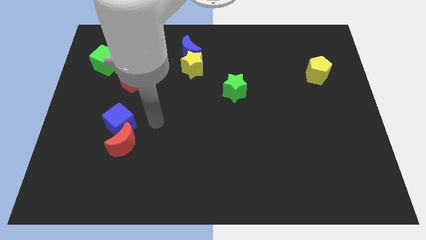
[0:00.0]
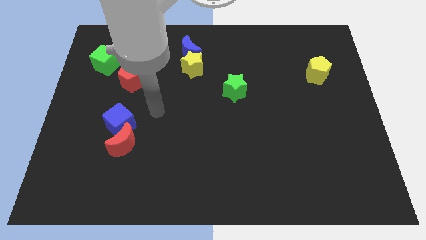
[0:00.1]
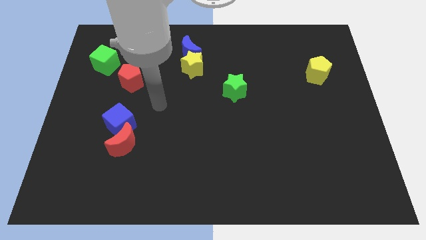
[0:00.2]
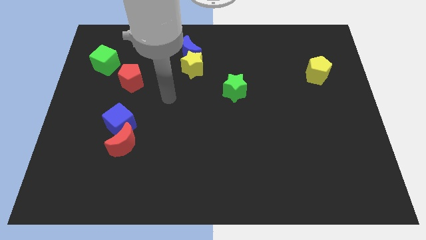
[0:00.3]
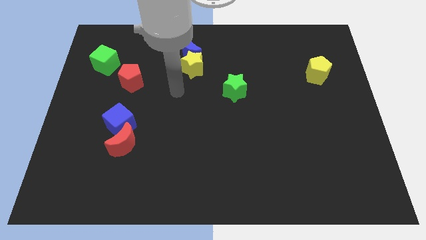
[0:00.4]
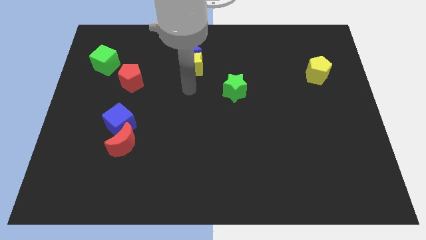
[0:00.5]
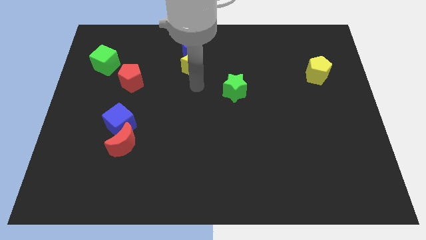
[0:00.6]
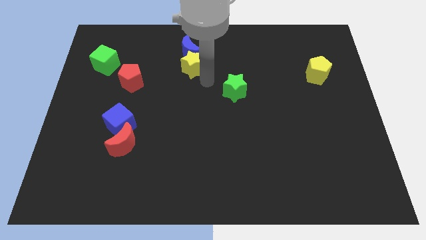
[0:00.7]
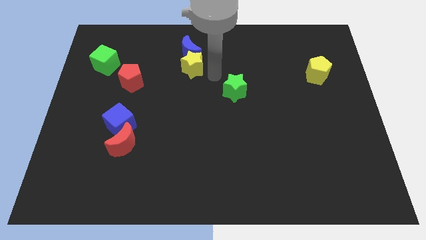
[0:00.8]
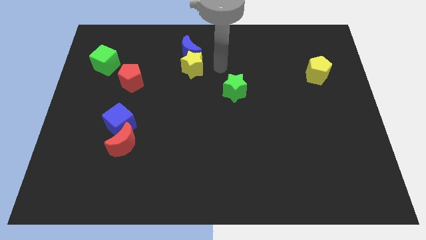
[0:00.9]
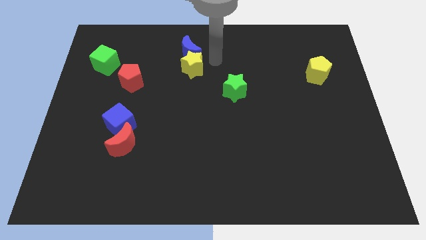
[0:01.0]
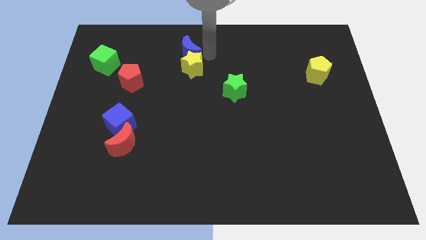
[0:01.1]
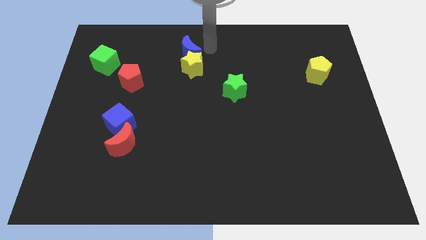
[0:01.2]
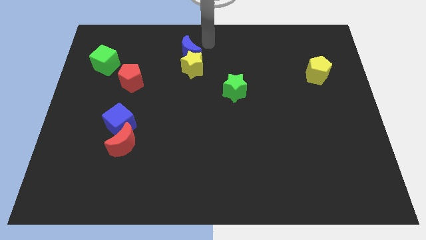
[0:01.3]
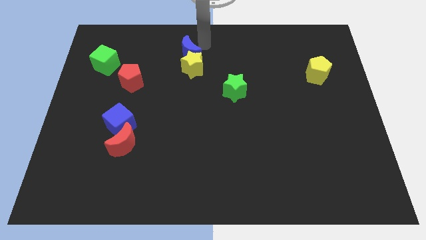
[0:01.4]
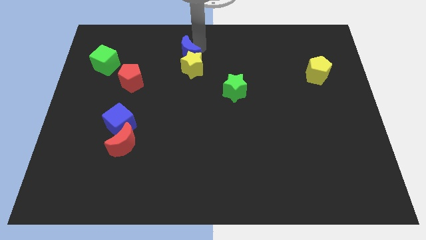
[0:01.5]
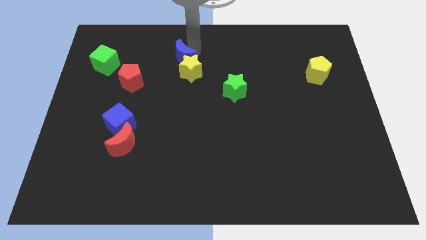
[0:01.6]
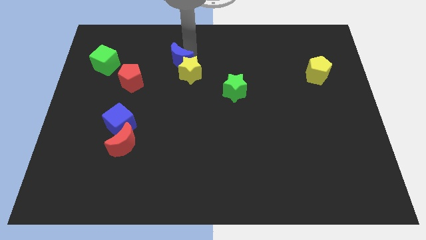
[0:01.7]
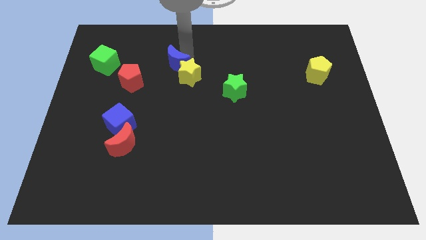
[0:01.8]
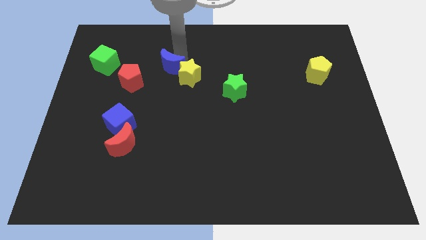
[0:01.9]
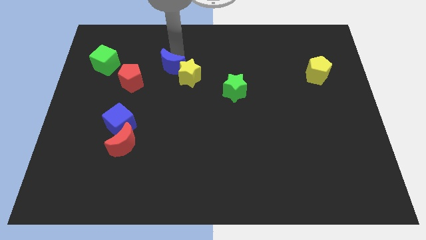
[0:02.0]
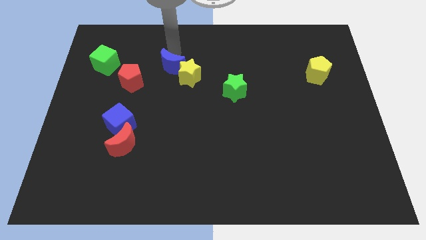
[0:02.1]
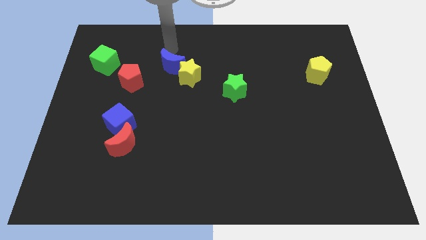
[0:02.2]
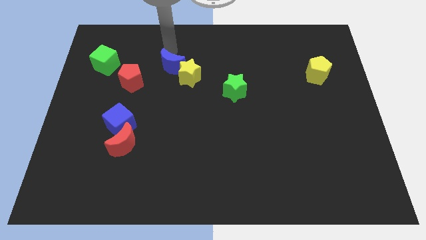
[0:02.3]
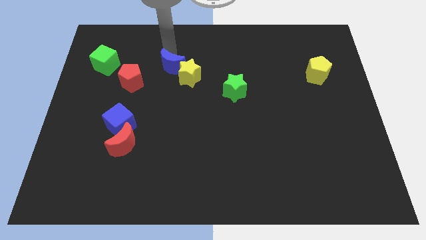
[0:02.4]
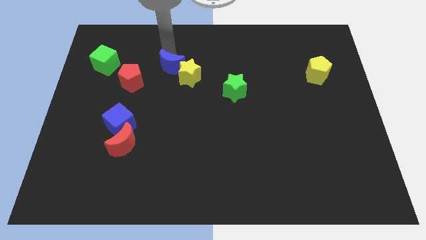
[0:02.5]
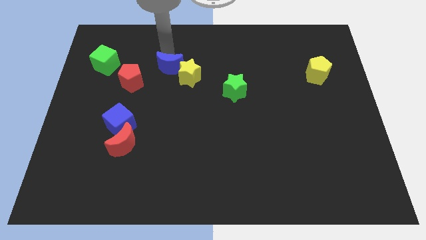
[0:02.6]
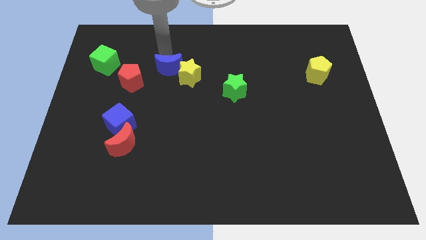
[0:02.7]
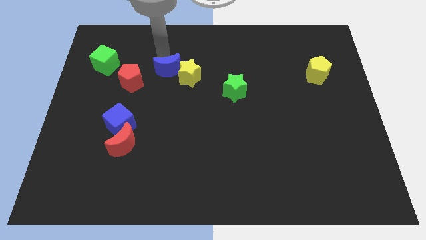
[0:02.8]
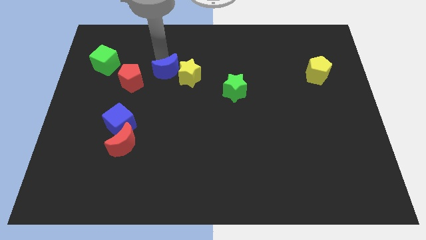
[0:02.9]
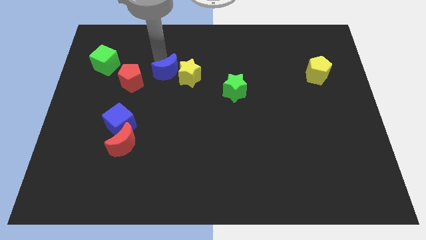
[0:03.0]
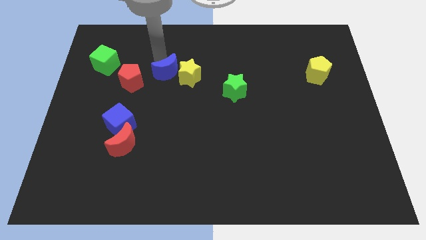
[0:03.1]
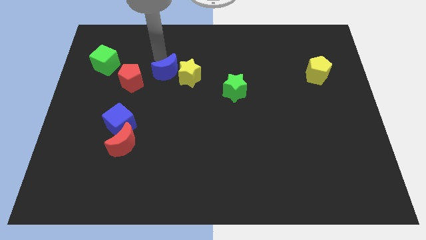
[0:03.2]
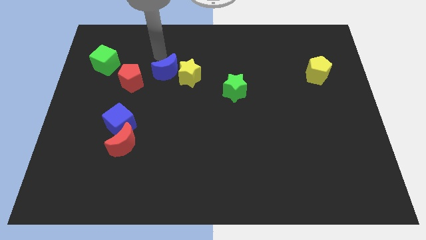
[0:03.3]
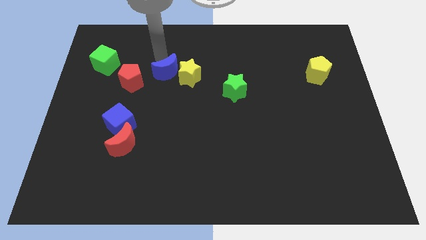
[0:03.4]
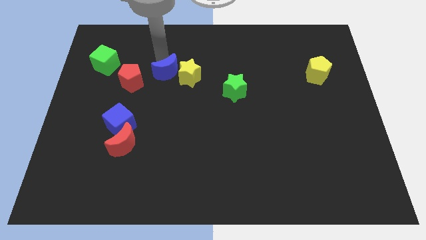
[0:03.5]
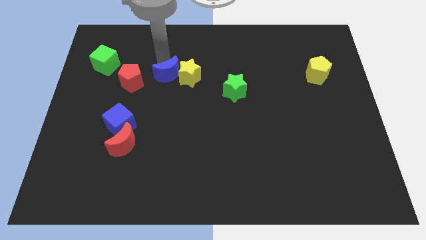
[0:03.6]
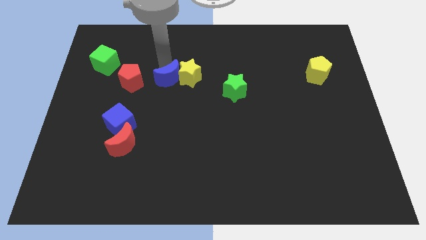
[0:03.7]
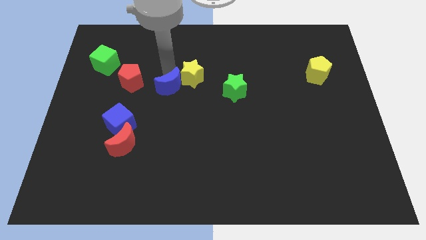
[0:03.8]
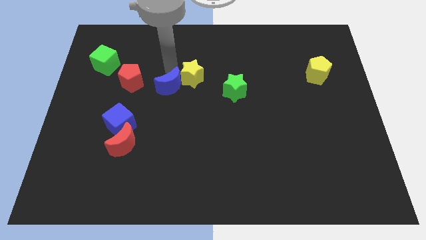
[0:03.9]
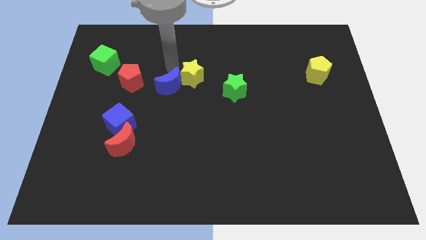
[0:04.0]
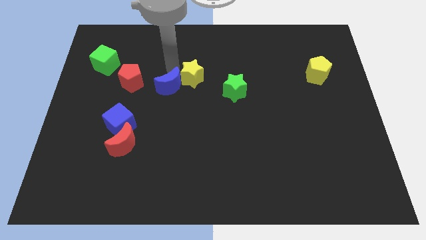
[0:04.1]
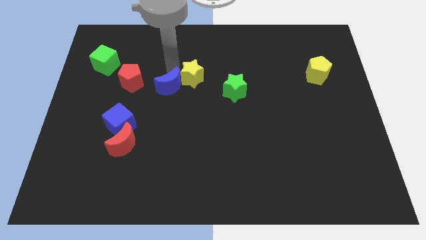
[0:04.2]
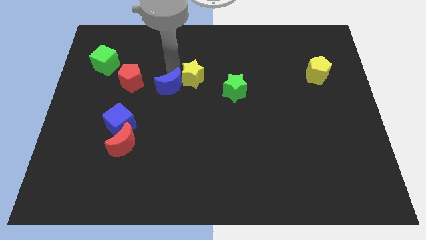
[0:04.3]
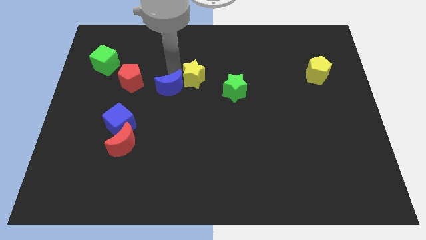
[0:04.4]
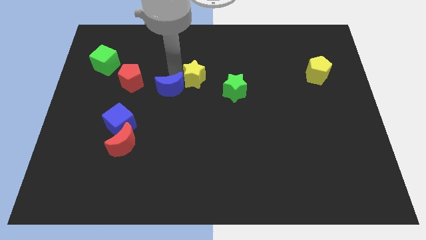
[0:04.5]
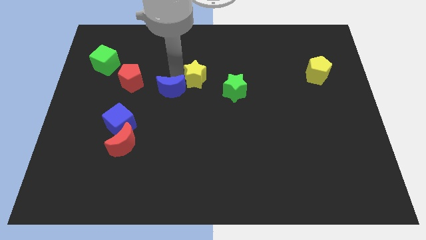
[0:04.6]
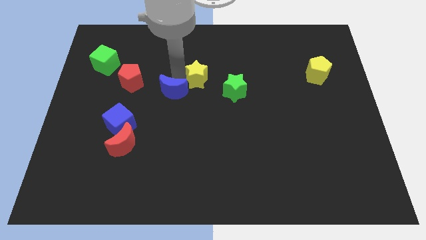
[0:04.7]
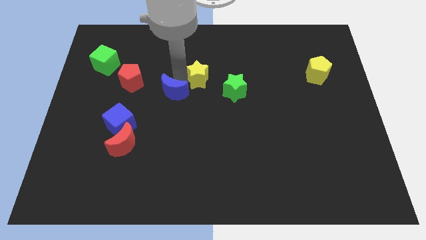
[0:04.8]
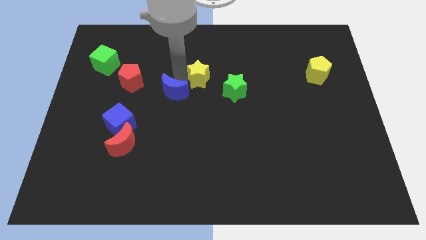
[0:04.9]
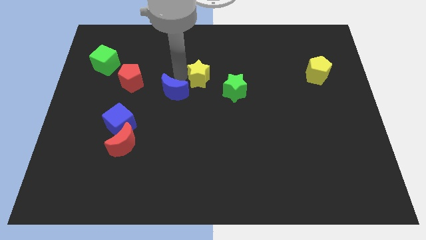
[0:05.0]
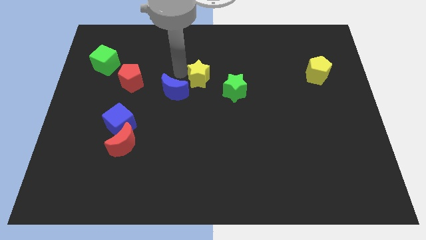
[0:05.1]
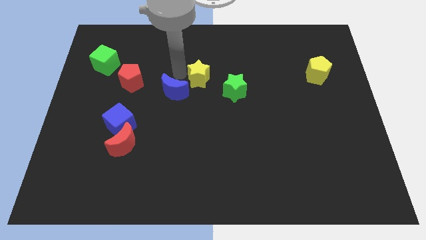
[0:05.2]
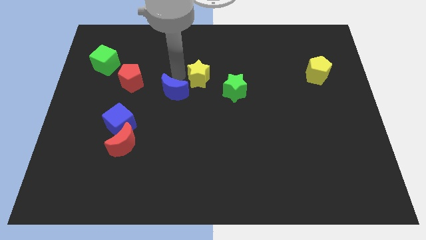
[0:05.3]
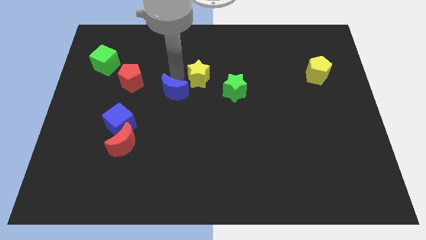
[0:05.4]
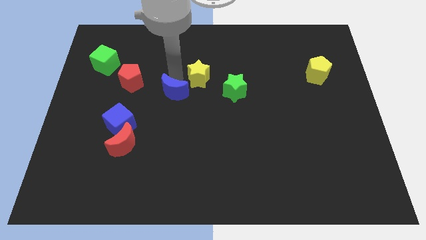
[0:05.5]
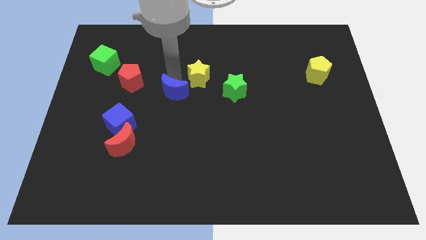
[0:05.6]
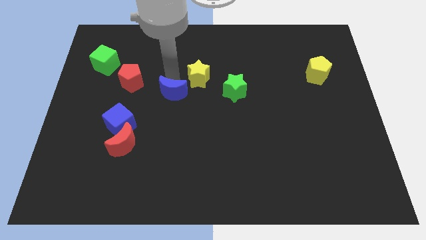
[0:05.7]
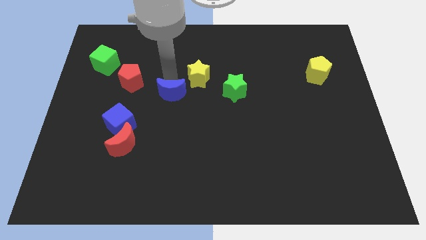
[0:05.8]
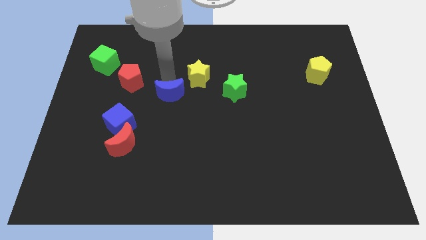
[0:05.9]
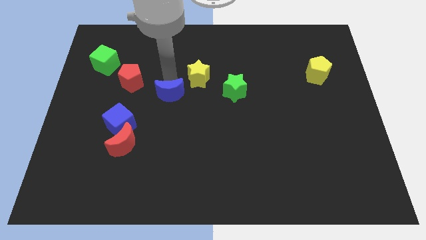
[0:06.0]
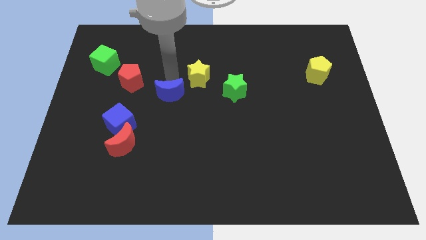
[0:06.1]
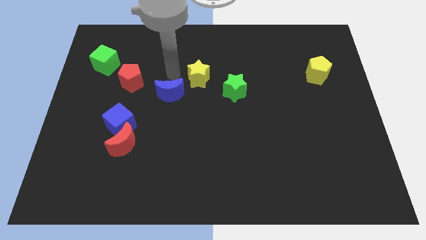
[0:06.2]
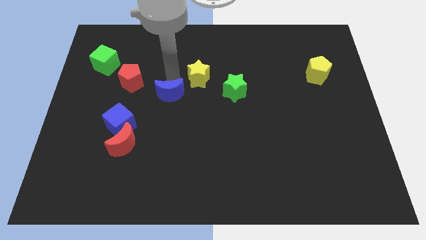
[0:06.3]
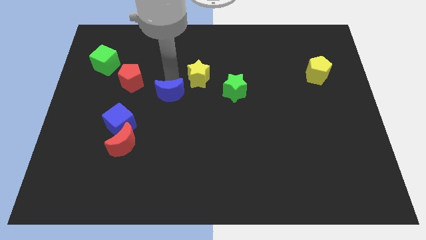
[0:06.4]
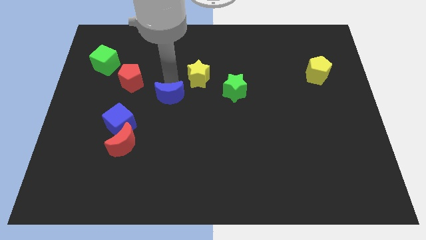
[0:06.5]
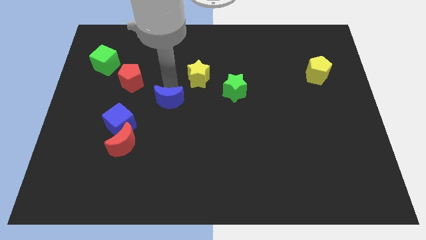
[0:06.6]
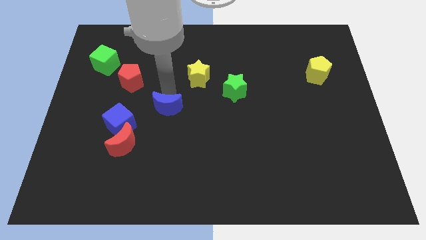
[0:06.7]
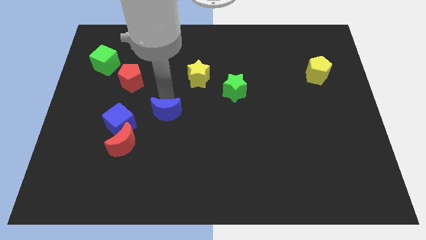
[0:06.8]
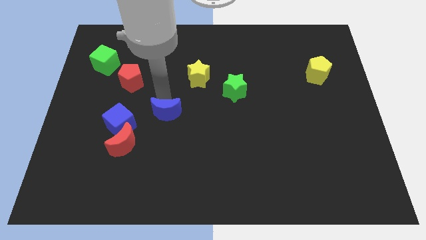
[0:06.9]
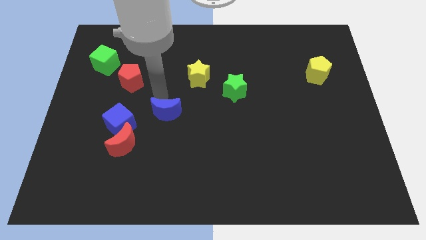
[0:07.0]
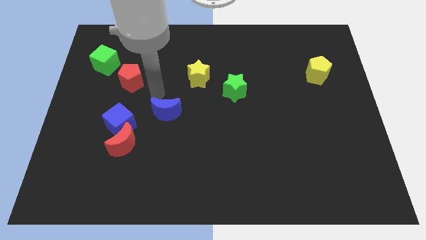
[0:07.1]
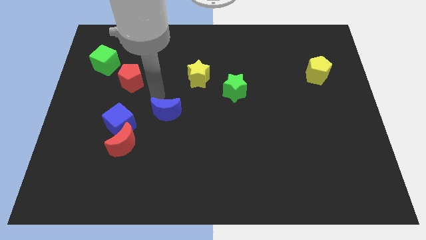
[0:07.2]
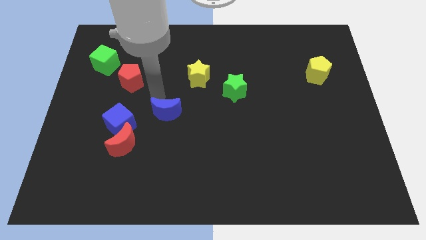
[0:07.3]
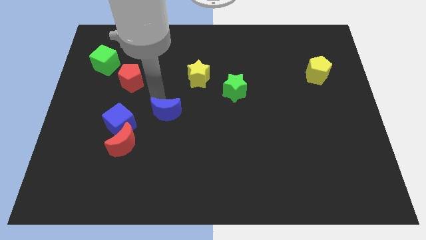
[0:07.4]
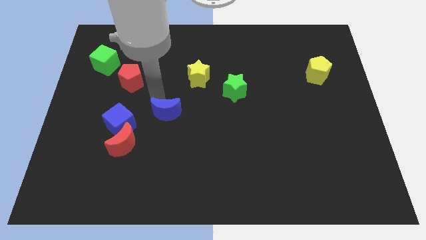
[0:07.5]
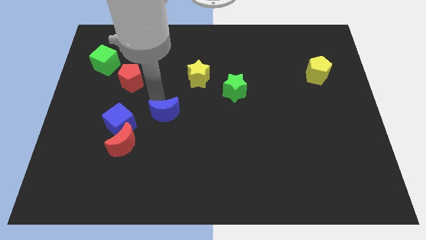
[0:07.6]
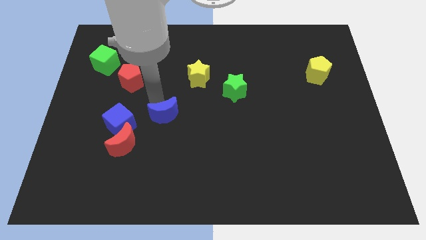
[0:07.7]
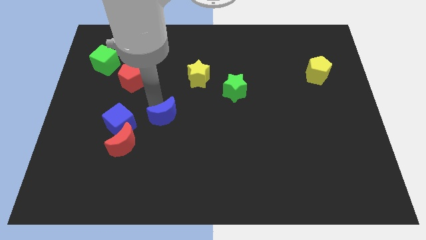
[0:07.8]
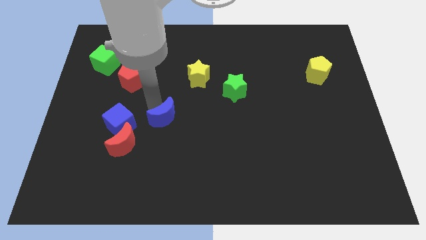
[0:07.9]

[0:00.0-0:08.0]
move the blue moon downwards
